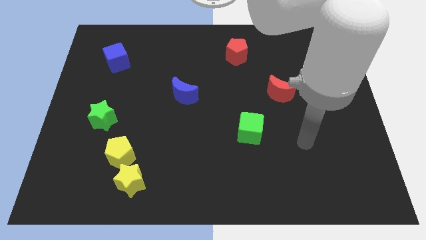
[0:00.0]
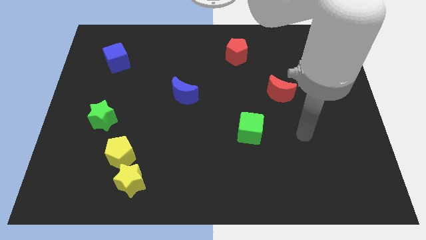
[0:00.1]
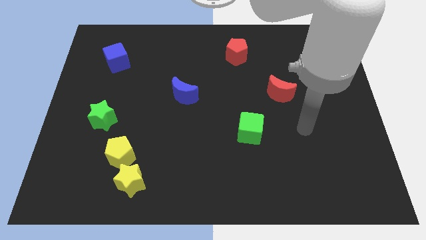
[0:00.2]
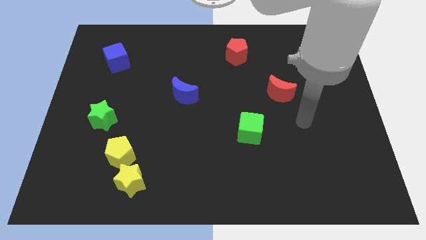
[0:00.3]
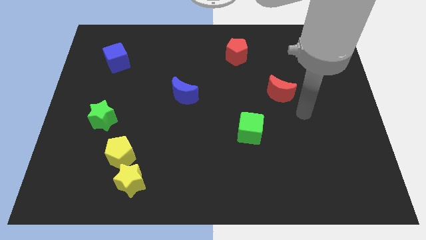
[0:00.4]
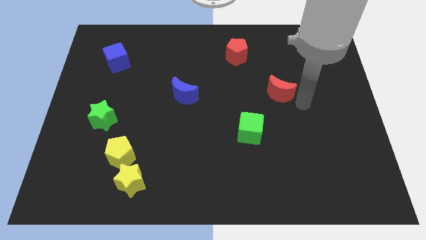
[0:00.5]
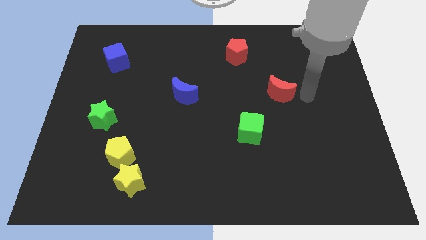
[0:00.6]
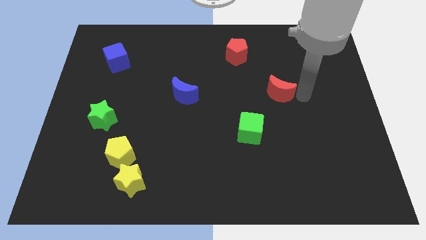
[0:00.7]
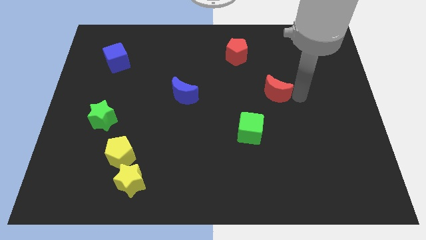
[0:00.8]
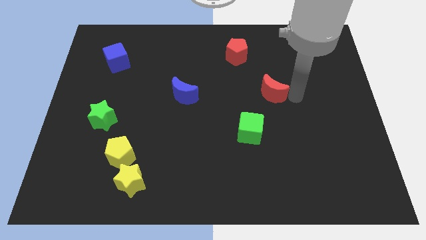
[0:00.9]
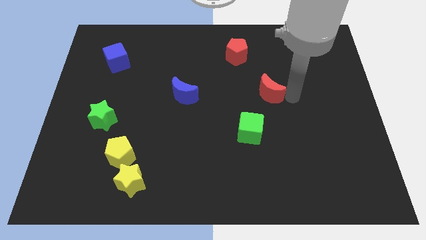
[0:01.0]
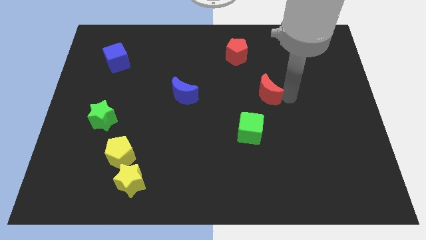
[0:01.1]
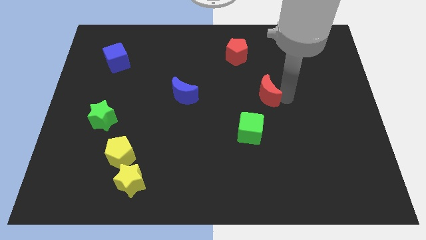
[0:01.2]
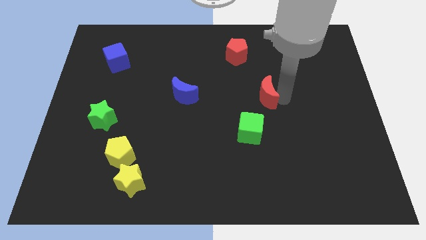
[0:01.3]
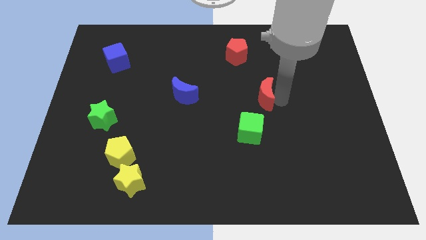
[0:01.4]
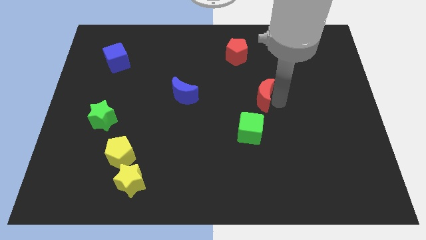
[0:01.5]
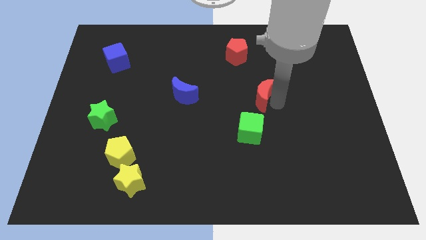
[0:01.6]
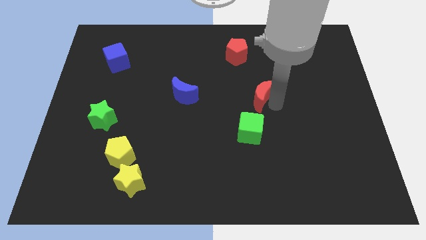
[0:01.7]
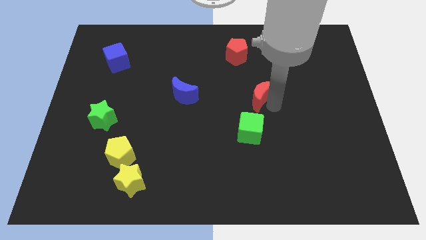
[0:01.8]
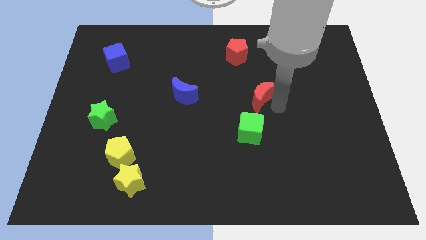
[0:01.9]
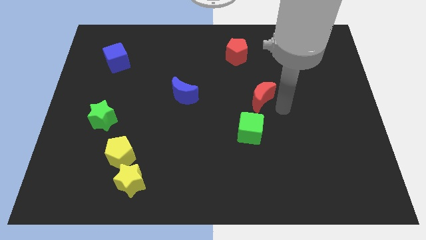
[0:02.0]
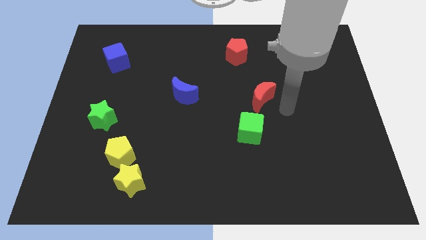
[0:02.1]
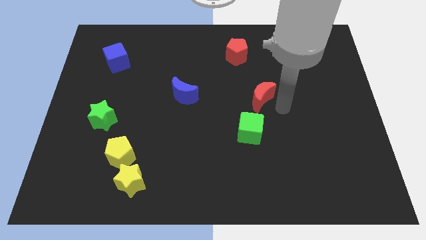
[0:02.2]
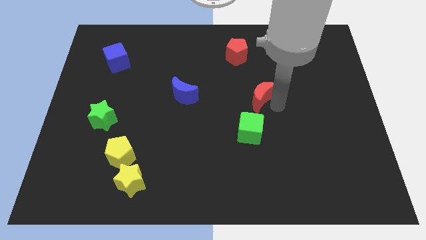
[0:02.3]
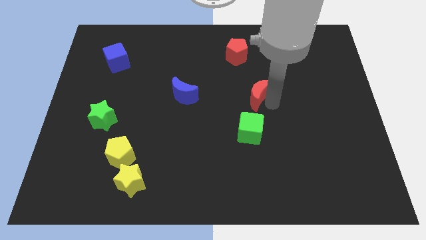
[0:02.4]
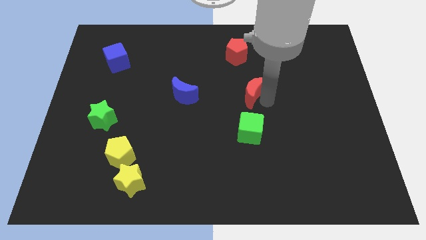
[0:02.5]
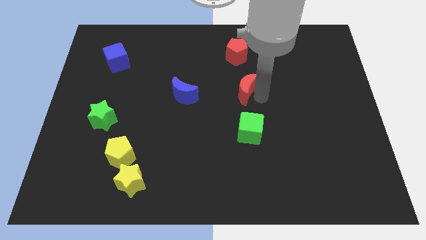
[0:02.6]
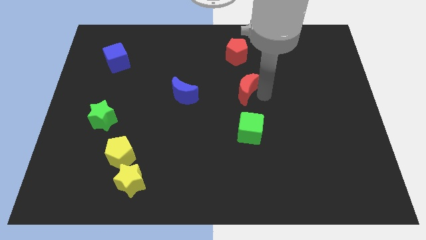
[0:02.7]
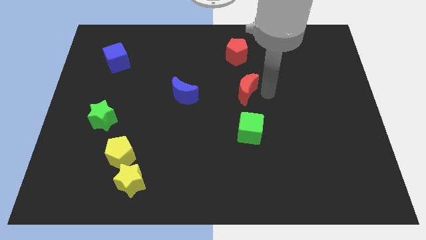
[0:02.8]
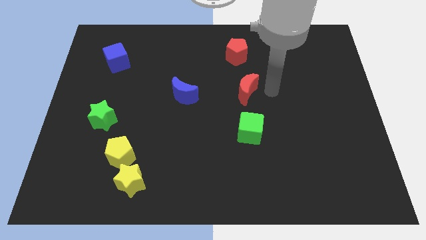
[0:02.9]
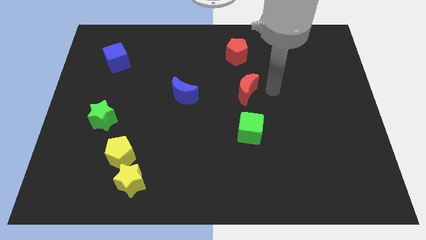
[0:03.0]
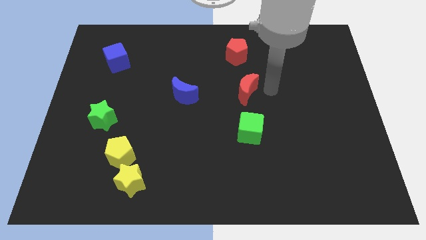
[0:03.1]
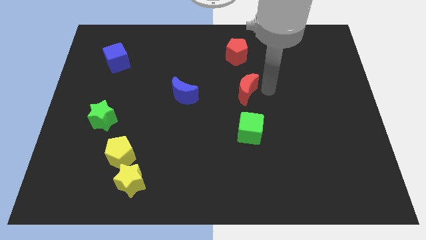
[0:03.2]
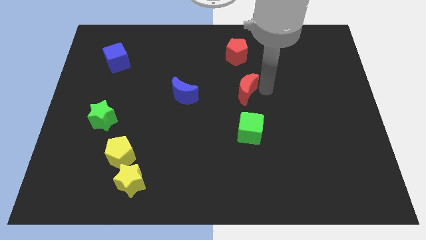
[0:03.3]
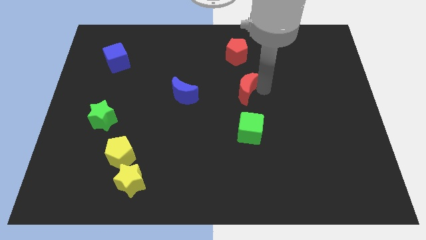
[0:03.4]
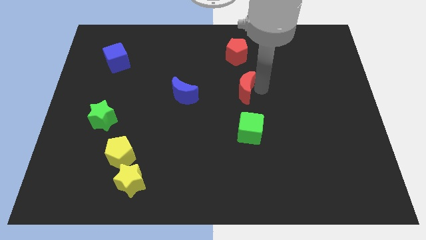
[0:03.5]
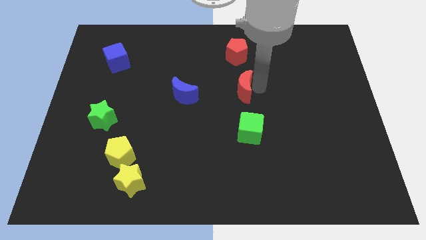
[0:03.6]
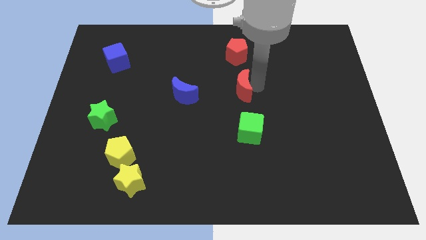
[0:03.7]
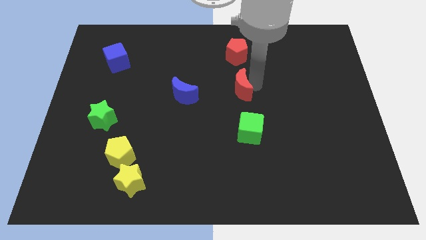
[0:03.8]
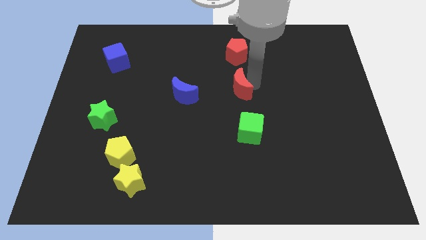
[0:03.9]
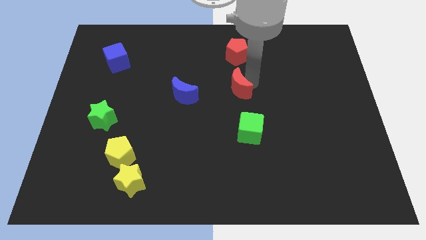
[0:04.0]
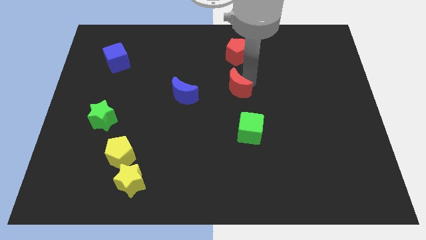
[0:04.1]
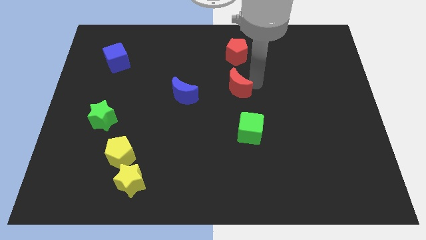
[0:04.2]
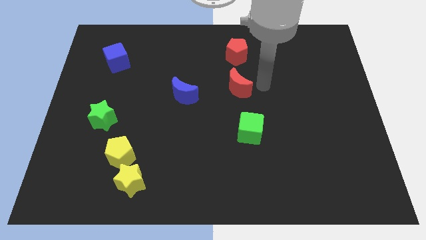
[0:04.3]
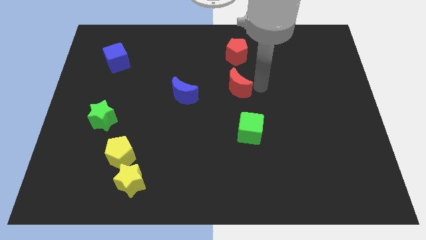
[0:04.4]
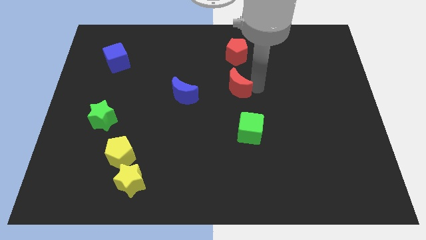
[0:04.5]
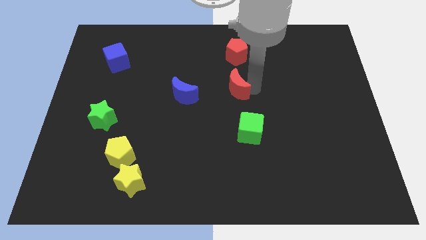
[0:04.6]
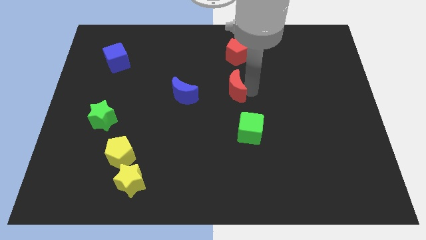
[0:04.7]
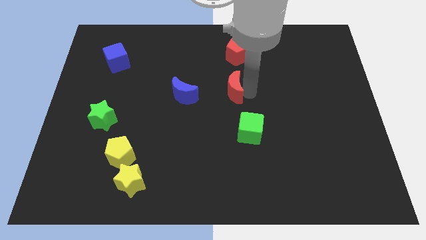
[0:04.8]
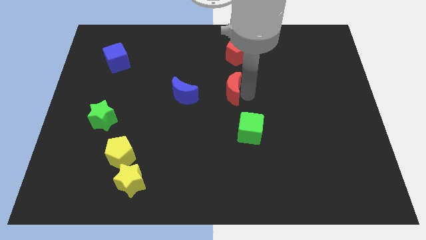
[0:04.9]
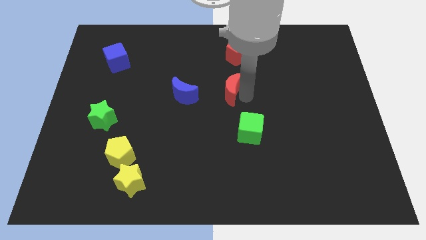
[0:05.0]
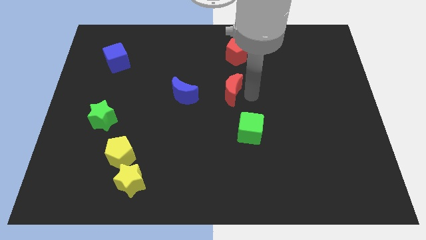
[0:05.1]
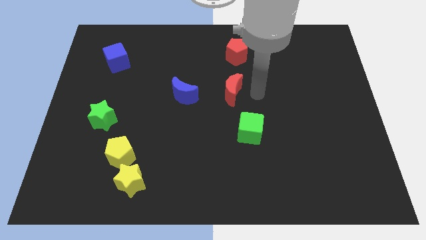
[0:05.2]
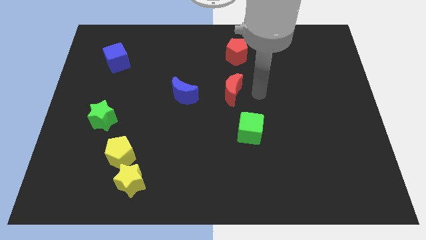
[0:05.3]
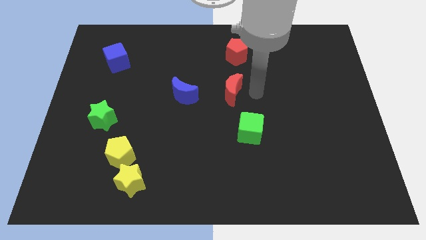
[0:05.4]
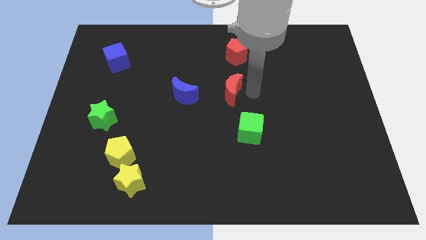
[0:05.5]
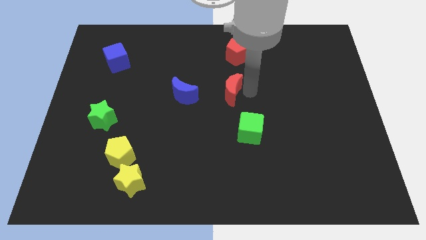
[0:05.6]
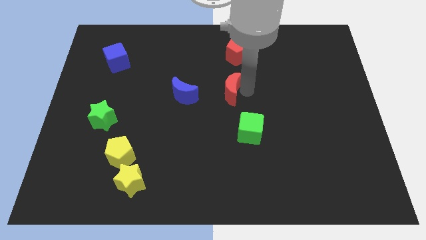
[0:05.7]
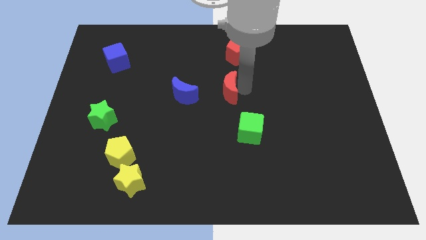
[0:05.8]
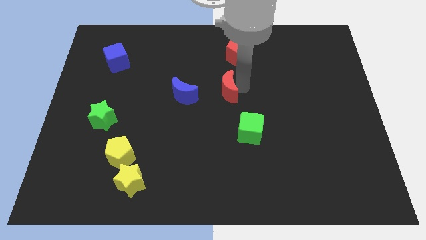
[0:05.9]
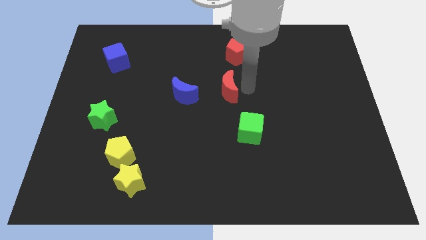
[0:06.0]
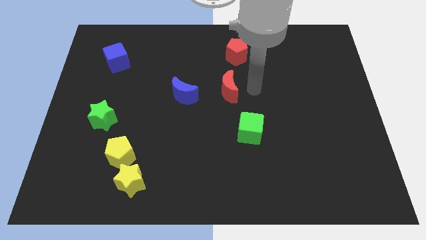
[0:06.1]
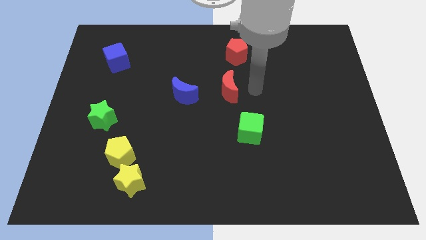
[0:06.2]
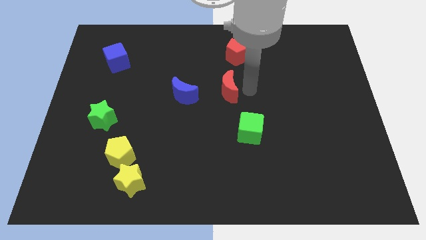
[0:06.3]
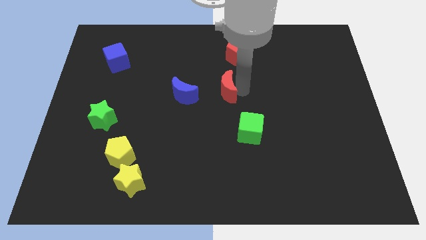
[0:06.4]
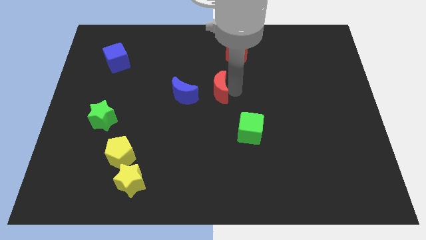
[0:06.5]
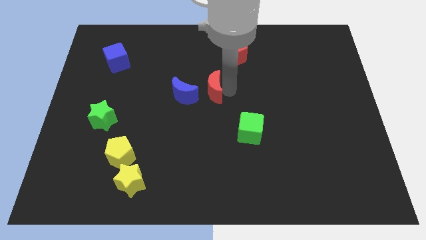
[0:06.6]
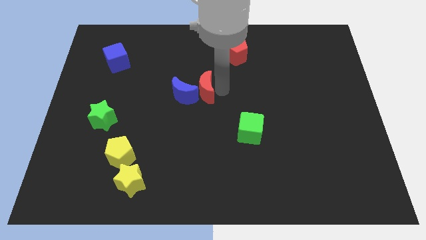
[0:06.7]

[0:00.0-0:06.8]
slide the red moon towards the blue moon
